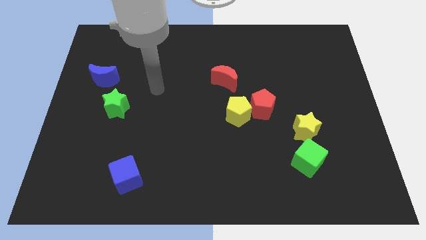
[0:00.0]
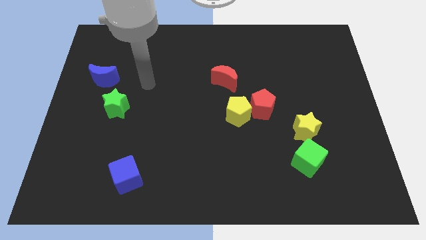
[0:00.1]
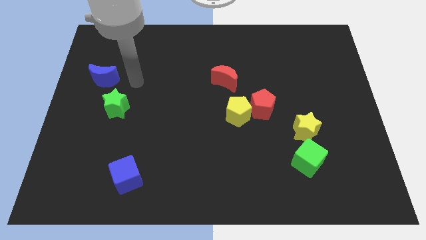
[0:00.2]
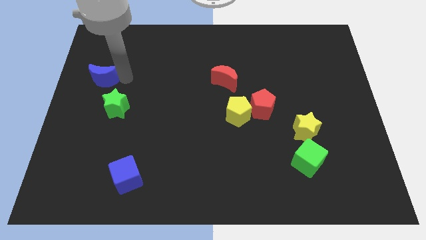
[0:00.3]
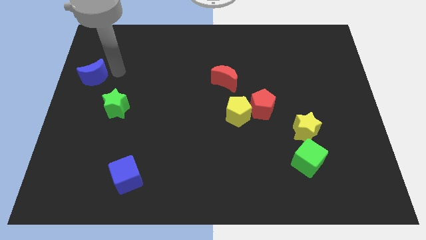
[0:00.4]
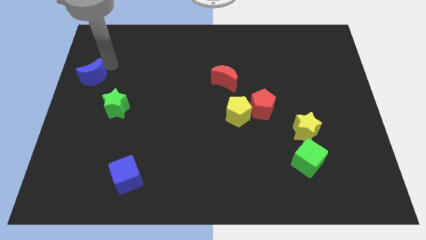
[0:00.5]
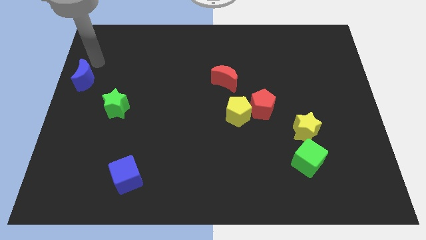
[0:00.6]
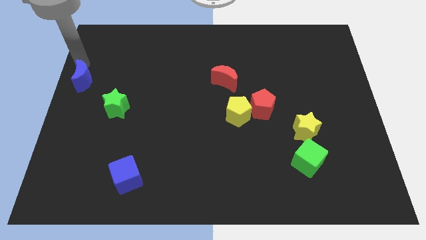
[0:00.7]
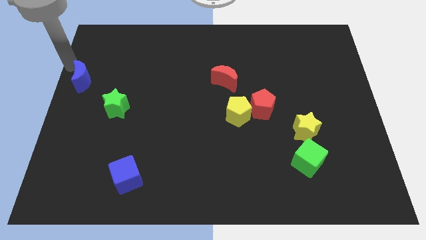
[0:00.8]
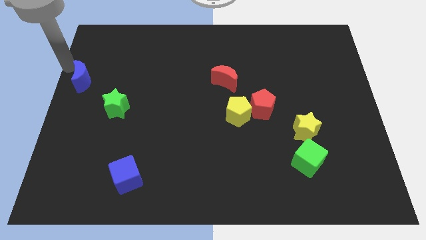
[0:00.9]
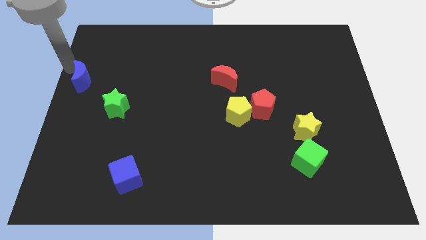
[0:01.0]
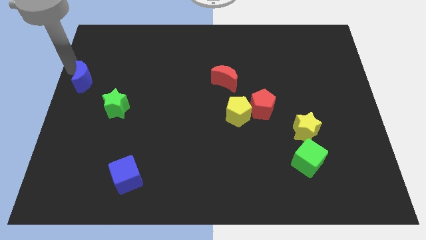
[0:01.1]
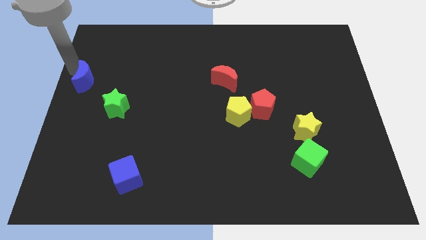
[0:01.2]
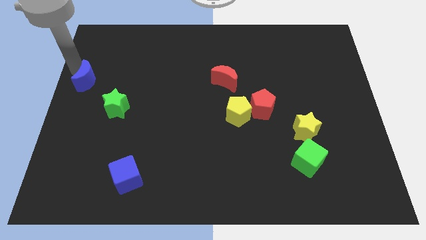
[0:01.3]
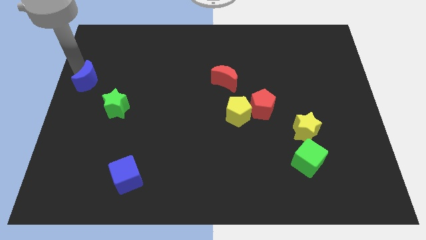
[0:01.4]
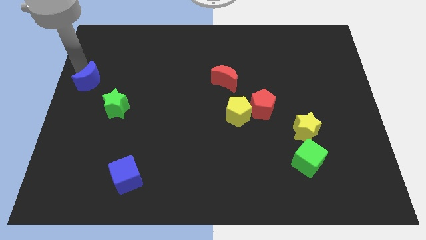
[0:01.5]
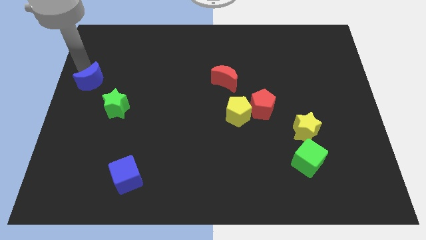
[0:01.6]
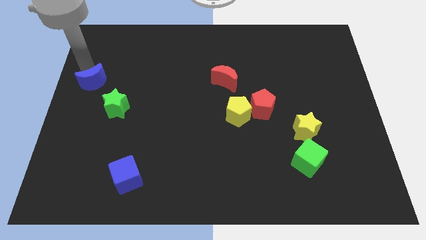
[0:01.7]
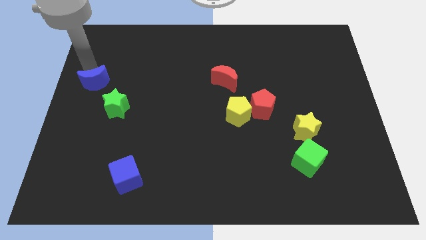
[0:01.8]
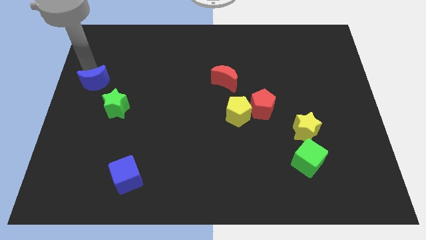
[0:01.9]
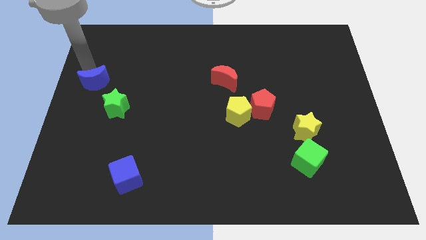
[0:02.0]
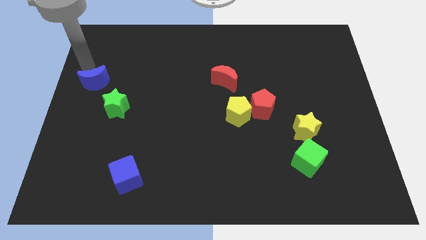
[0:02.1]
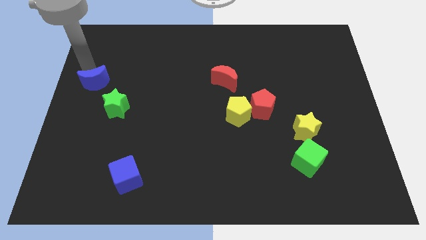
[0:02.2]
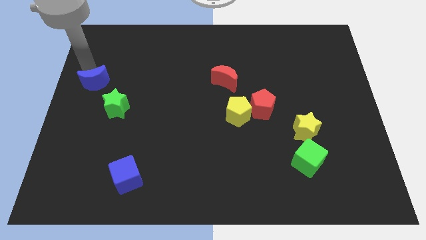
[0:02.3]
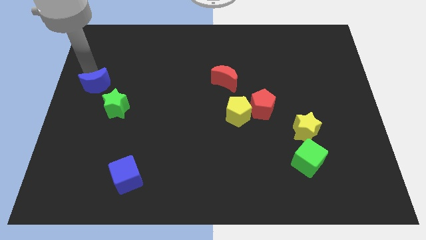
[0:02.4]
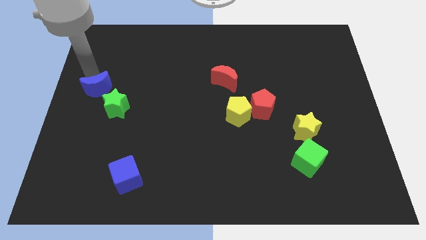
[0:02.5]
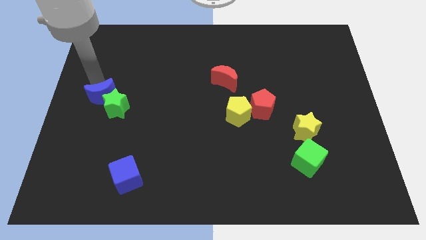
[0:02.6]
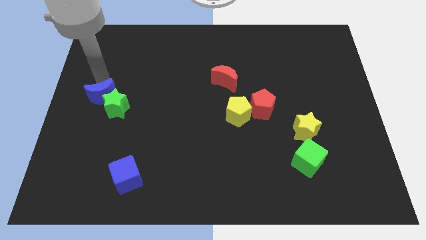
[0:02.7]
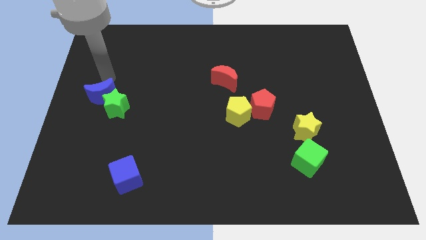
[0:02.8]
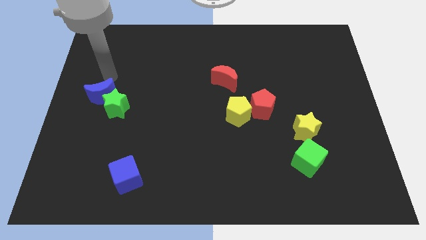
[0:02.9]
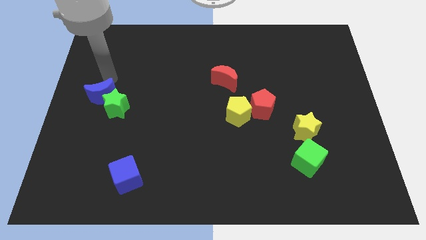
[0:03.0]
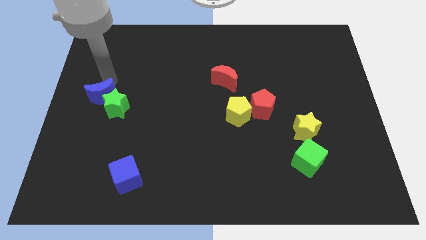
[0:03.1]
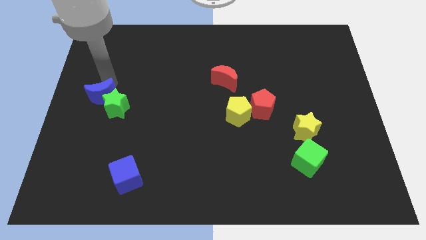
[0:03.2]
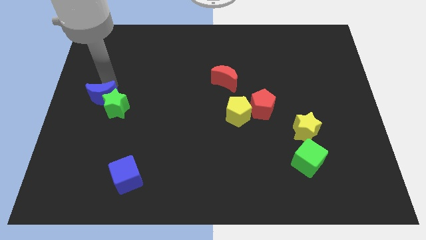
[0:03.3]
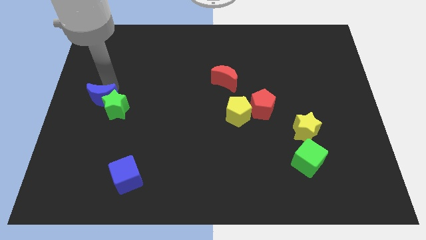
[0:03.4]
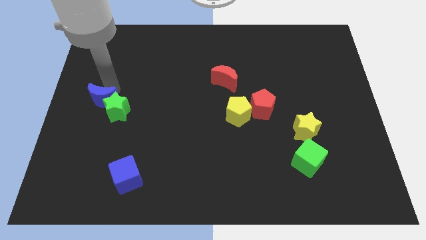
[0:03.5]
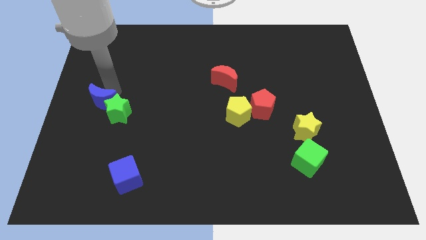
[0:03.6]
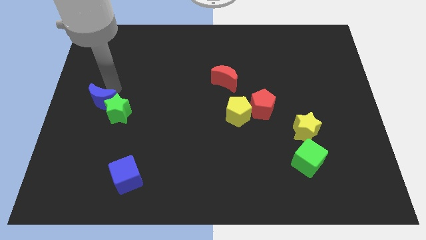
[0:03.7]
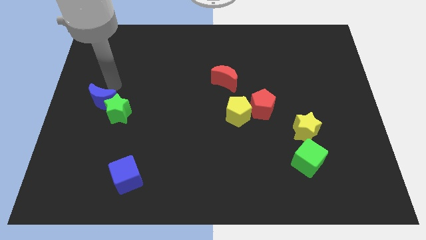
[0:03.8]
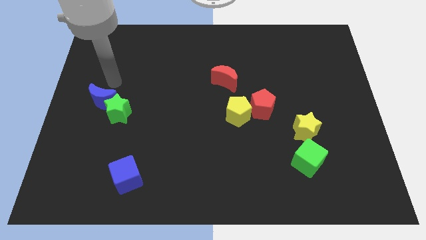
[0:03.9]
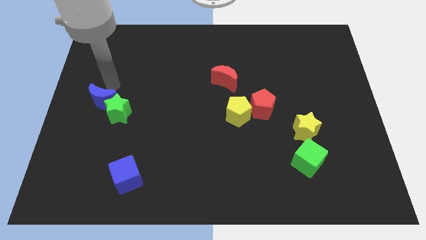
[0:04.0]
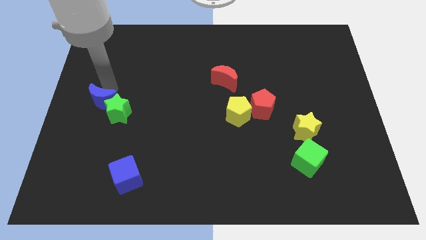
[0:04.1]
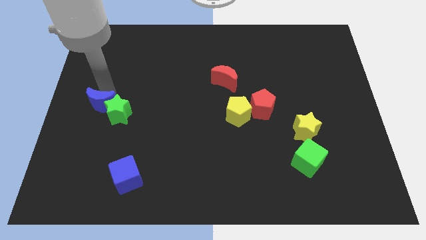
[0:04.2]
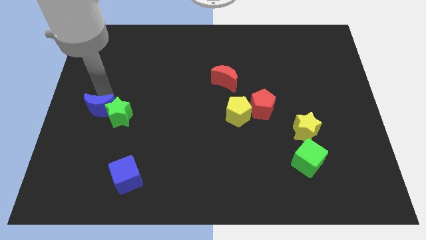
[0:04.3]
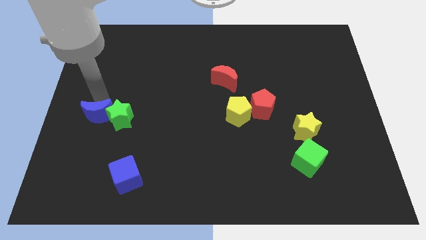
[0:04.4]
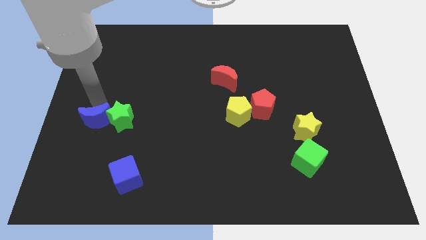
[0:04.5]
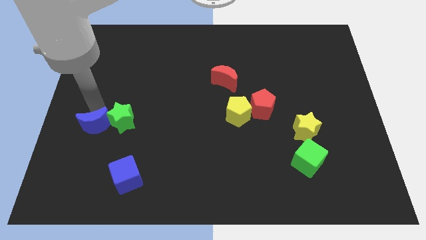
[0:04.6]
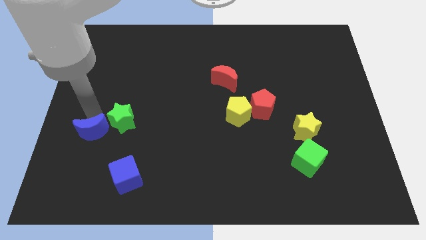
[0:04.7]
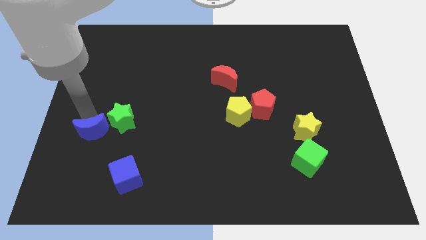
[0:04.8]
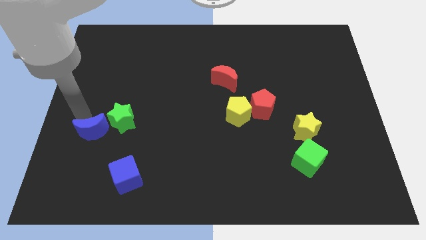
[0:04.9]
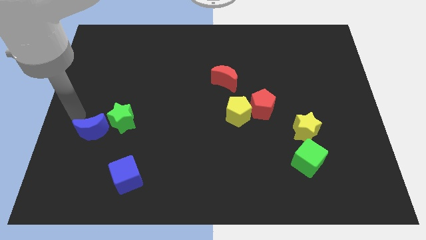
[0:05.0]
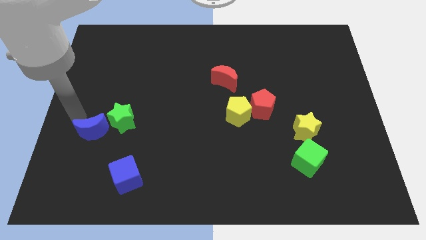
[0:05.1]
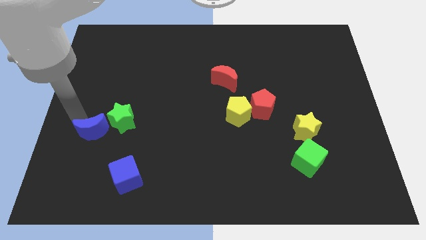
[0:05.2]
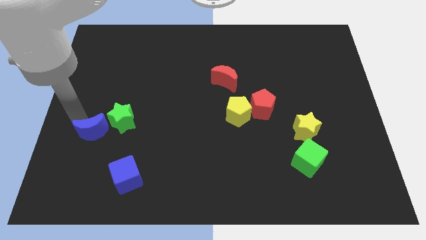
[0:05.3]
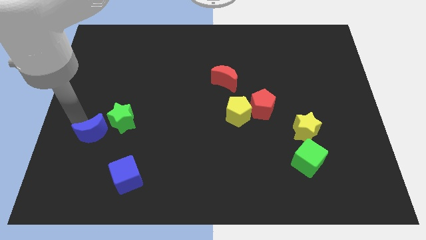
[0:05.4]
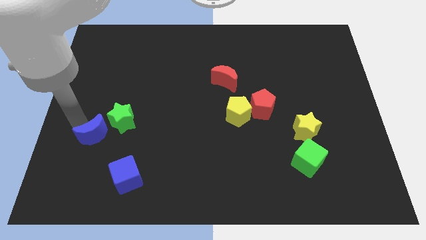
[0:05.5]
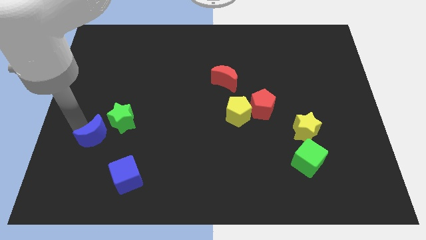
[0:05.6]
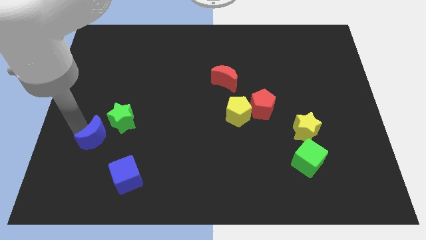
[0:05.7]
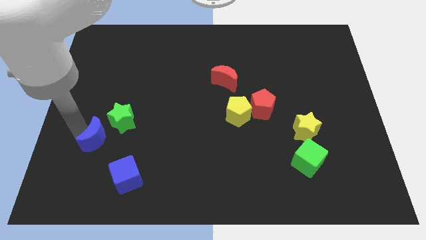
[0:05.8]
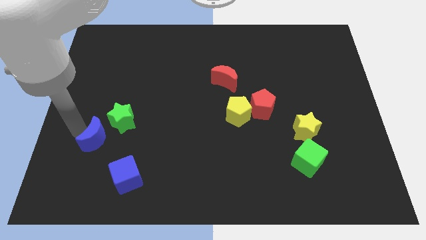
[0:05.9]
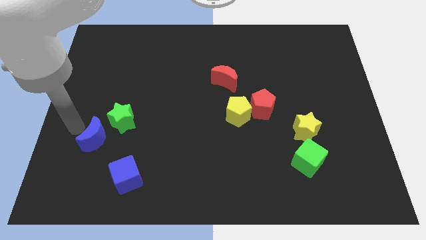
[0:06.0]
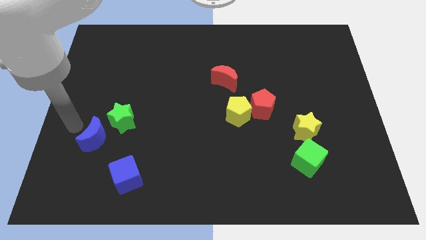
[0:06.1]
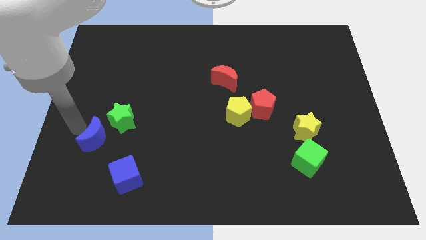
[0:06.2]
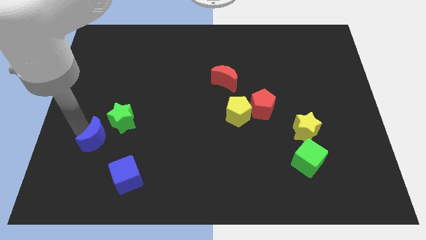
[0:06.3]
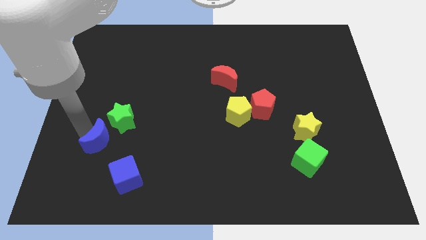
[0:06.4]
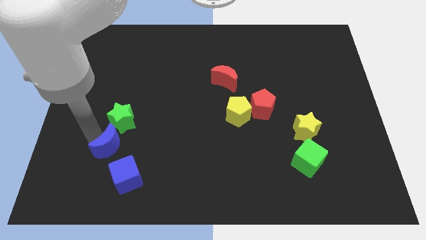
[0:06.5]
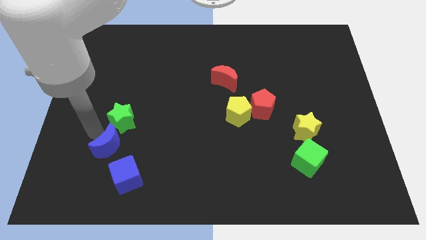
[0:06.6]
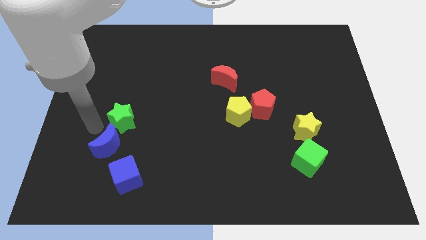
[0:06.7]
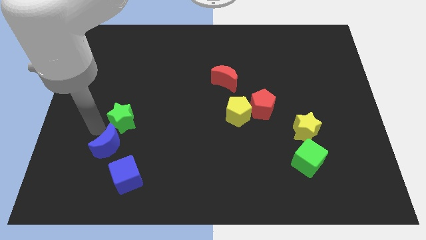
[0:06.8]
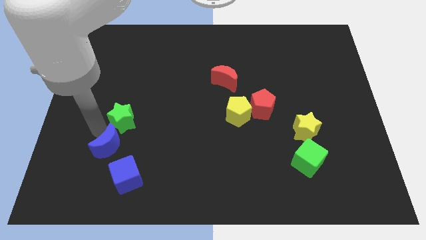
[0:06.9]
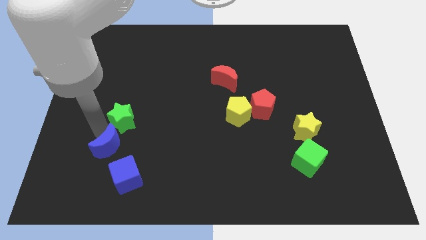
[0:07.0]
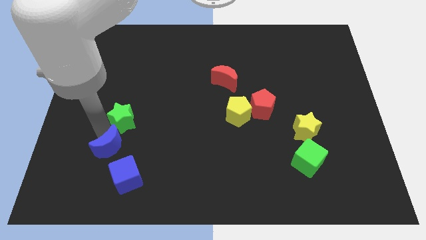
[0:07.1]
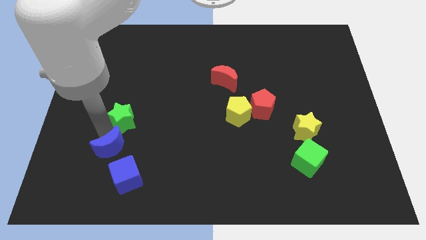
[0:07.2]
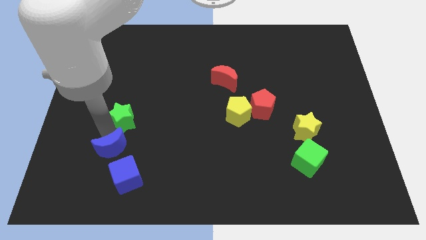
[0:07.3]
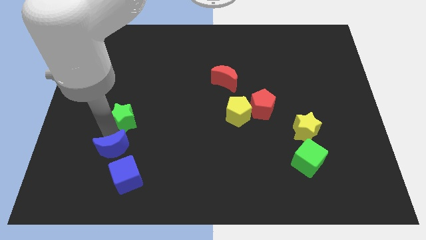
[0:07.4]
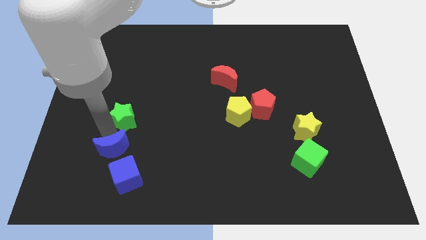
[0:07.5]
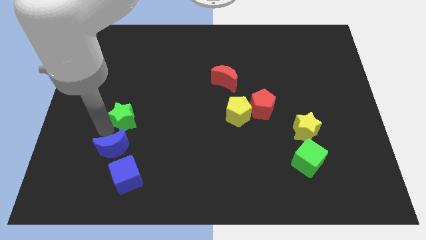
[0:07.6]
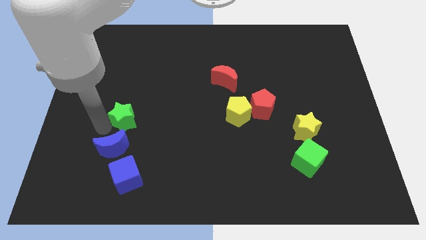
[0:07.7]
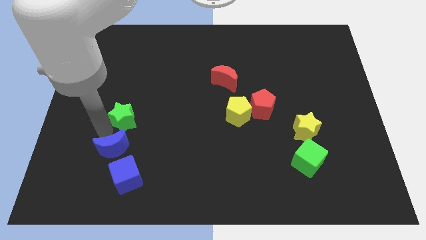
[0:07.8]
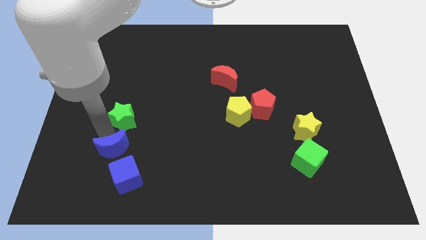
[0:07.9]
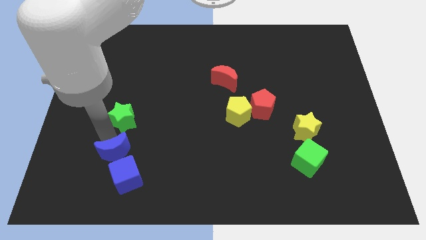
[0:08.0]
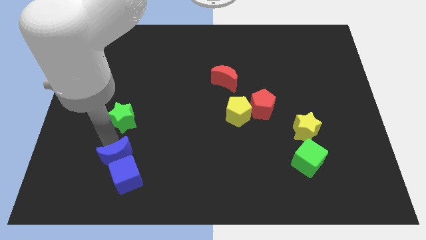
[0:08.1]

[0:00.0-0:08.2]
move the blue moon next to the blue cube
